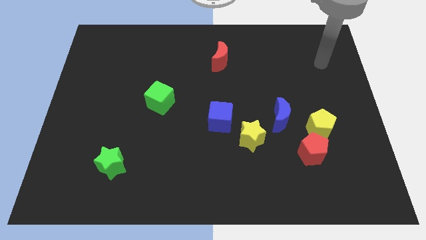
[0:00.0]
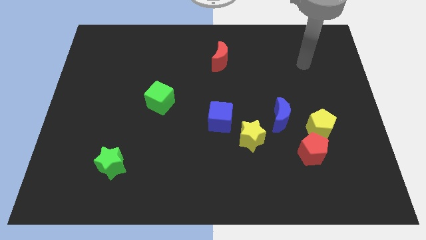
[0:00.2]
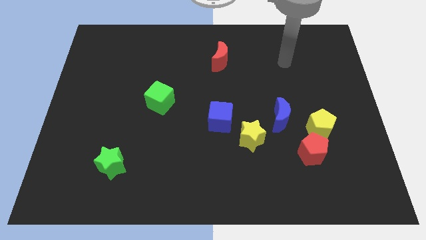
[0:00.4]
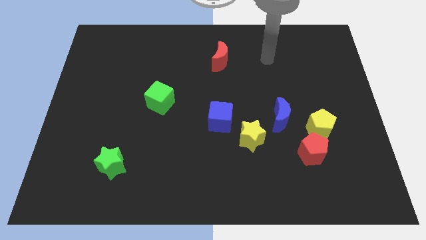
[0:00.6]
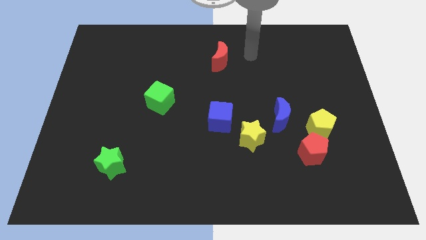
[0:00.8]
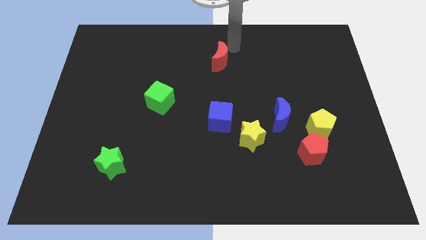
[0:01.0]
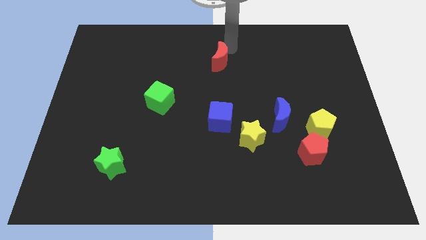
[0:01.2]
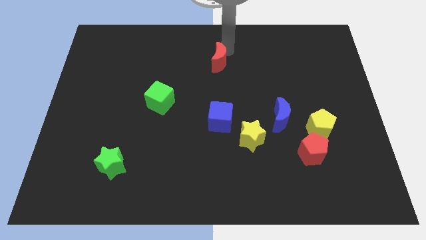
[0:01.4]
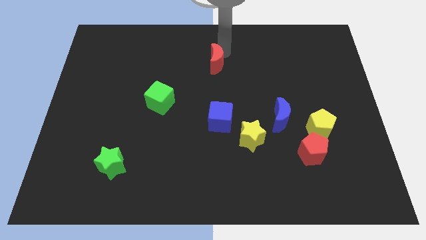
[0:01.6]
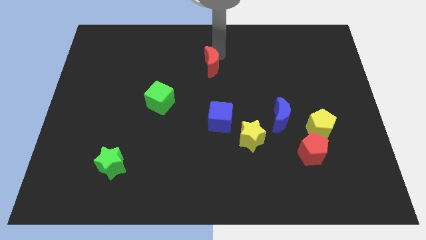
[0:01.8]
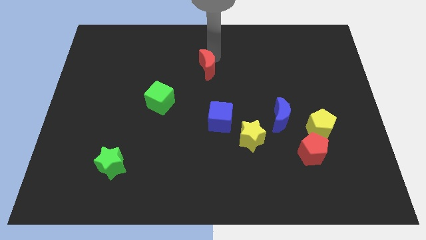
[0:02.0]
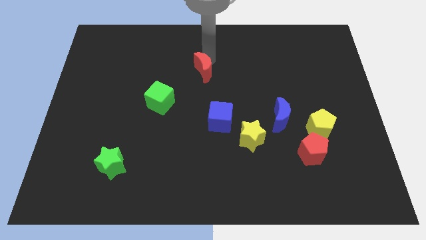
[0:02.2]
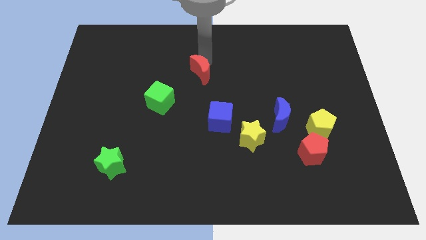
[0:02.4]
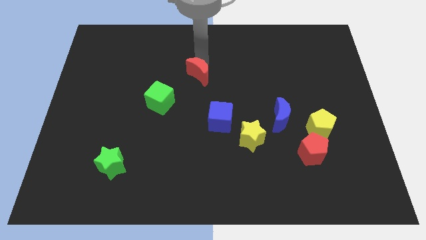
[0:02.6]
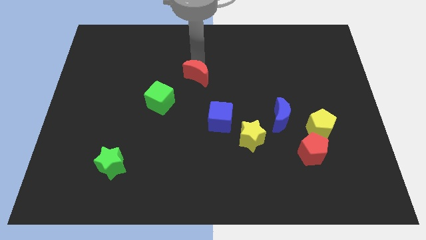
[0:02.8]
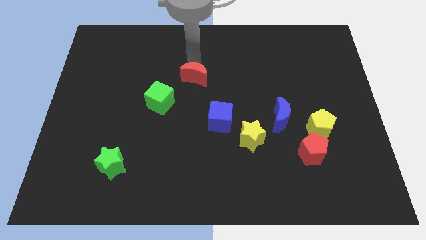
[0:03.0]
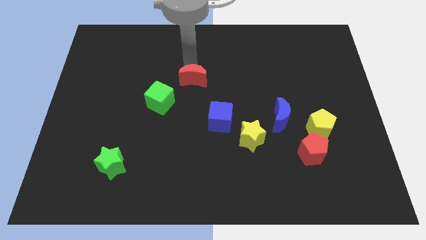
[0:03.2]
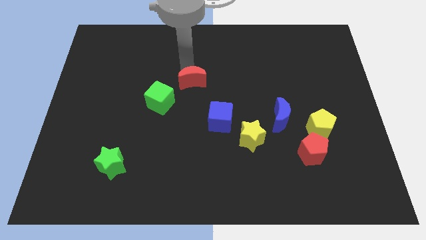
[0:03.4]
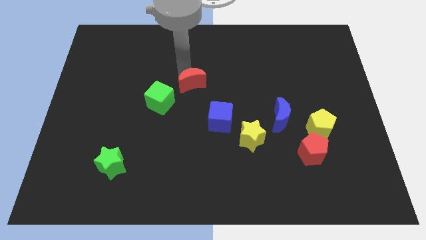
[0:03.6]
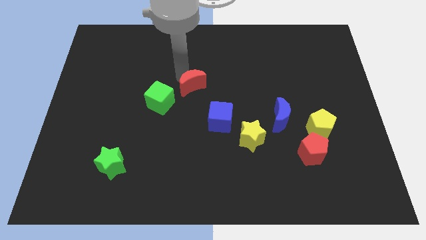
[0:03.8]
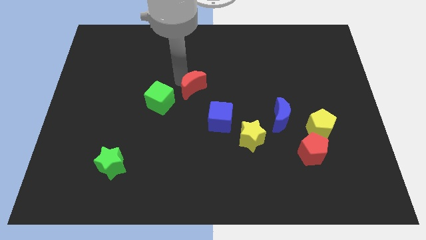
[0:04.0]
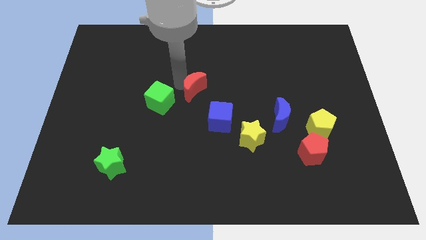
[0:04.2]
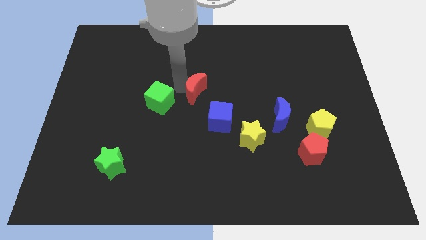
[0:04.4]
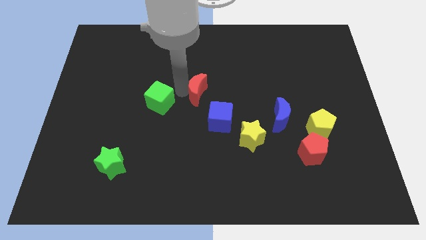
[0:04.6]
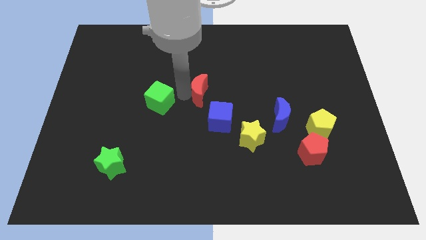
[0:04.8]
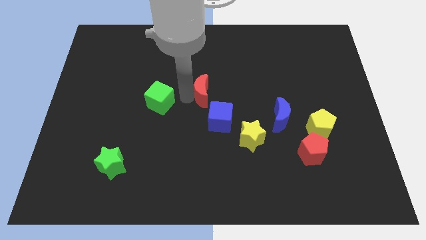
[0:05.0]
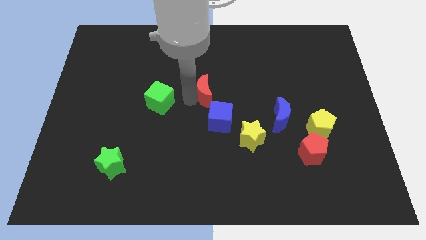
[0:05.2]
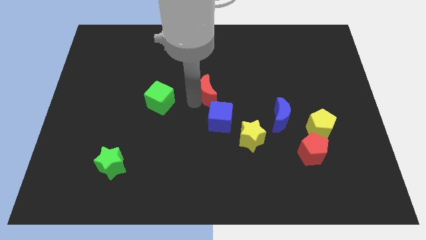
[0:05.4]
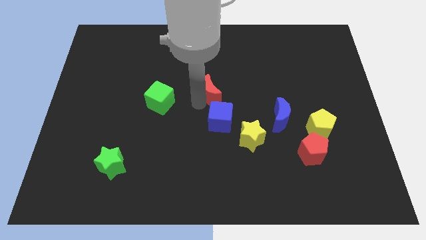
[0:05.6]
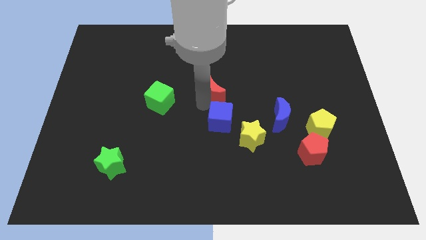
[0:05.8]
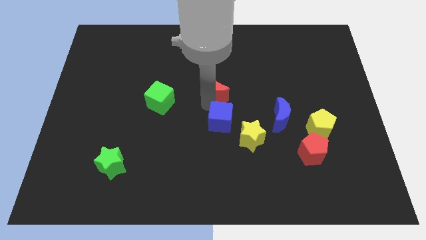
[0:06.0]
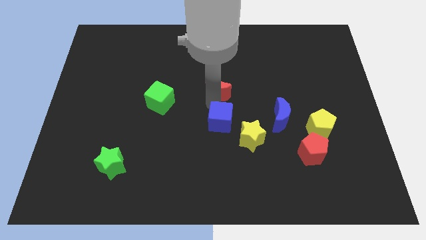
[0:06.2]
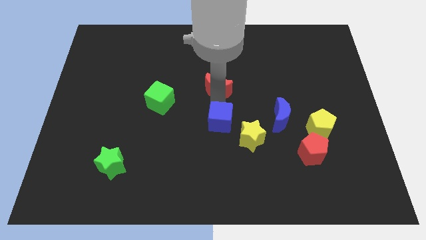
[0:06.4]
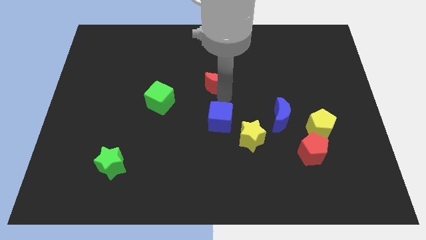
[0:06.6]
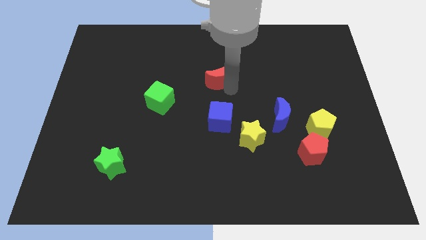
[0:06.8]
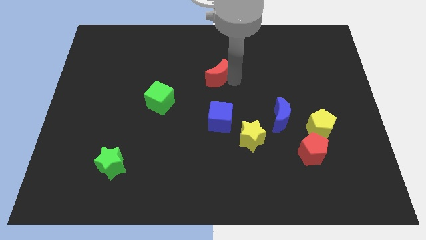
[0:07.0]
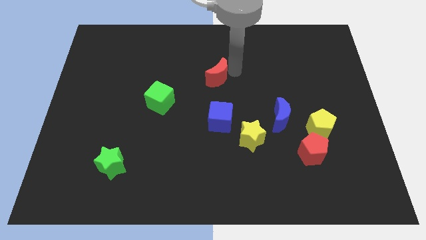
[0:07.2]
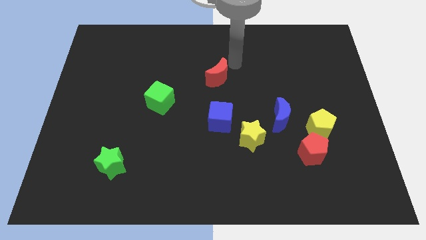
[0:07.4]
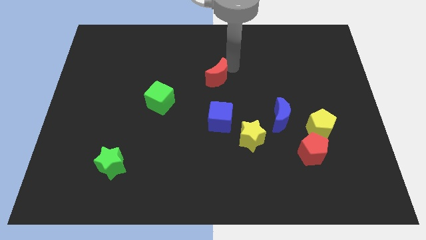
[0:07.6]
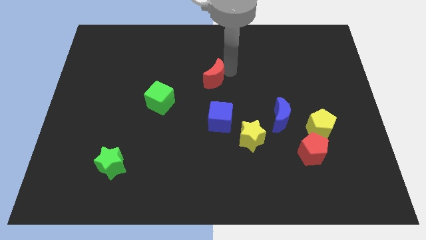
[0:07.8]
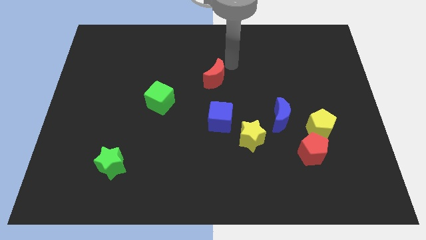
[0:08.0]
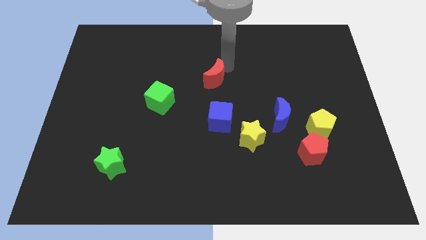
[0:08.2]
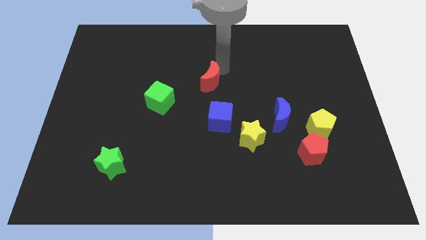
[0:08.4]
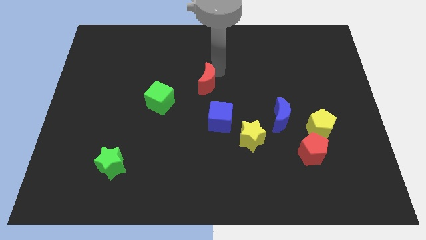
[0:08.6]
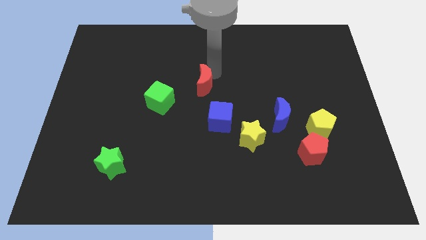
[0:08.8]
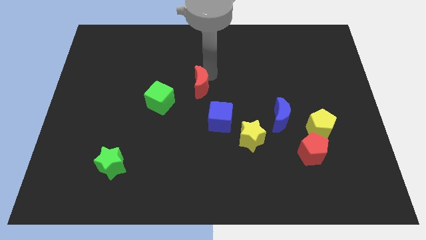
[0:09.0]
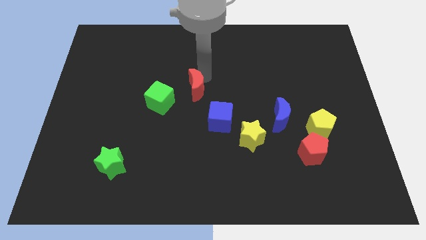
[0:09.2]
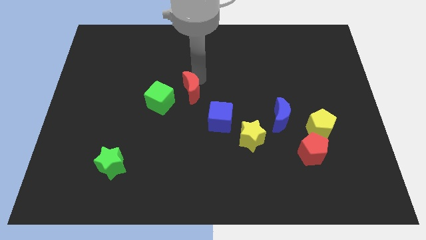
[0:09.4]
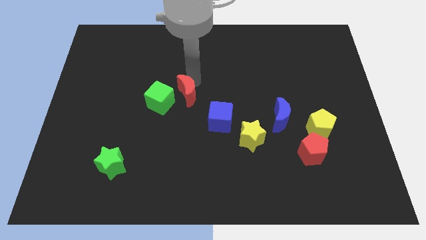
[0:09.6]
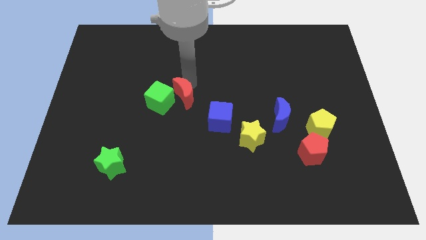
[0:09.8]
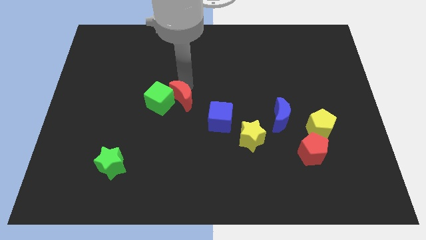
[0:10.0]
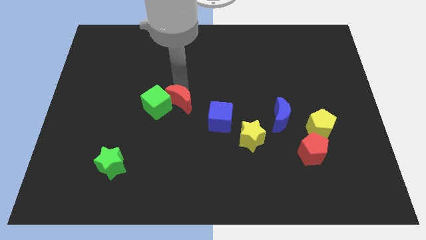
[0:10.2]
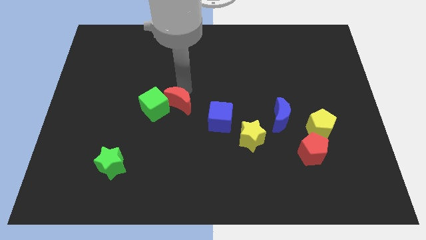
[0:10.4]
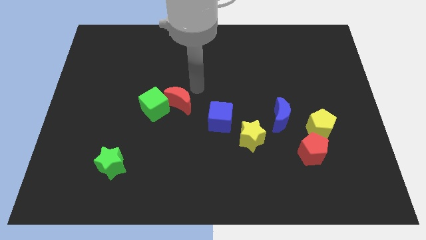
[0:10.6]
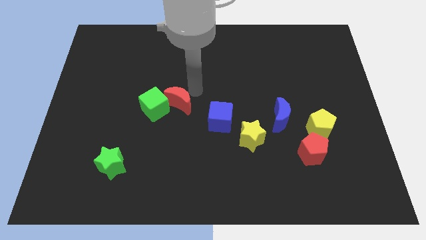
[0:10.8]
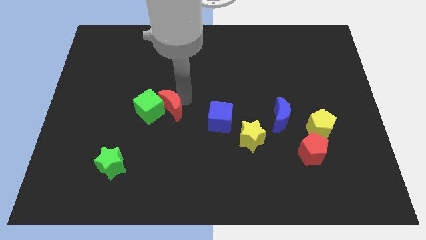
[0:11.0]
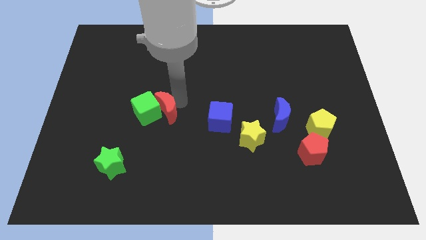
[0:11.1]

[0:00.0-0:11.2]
move the red moon down and to the left diagonally

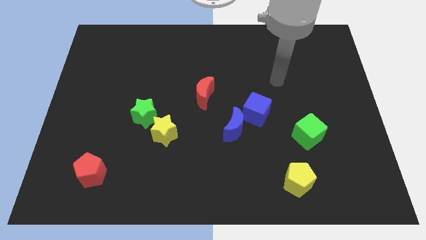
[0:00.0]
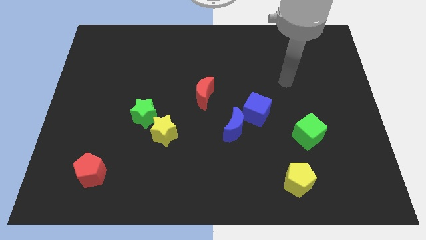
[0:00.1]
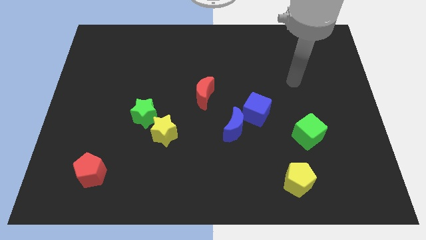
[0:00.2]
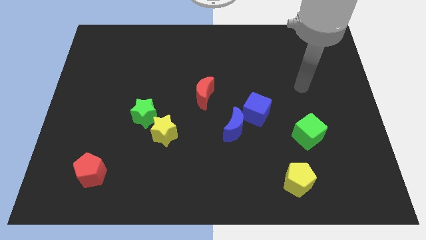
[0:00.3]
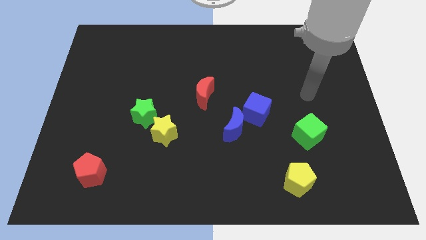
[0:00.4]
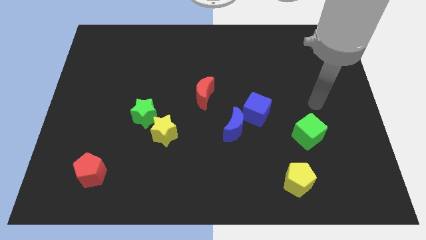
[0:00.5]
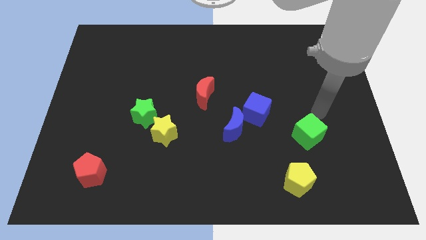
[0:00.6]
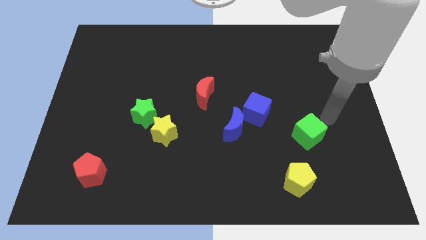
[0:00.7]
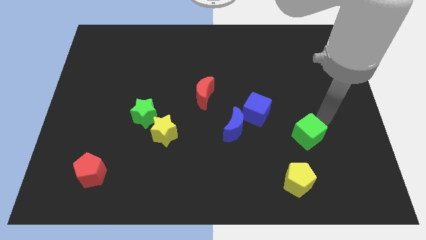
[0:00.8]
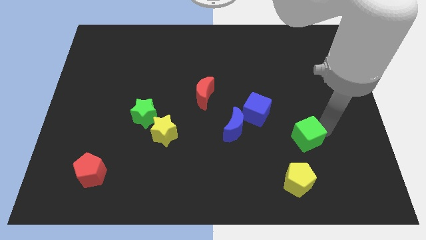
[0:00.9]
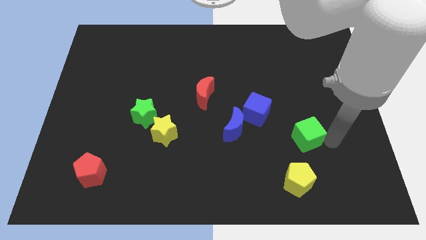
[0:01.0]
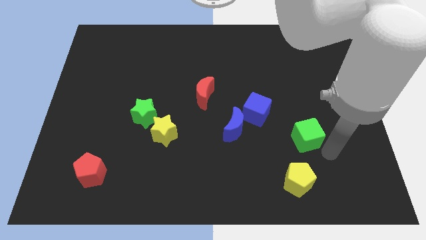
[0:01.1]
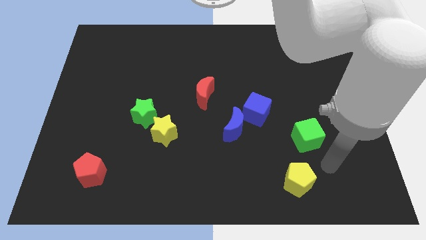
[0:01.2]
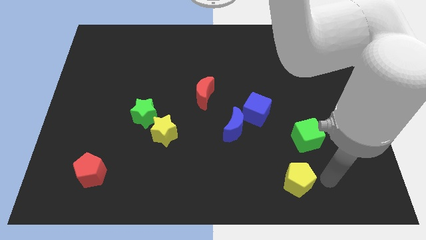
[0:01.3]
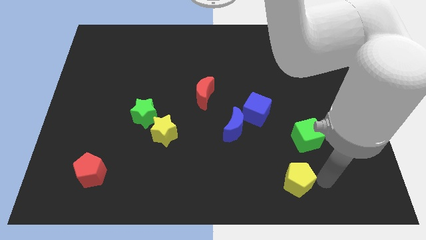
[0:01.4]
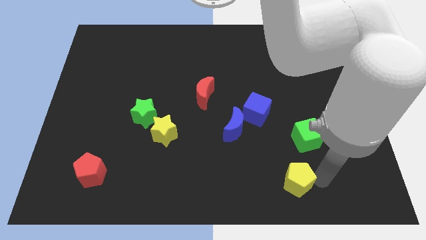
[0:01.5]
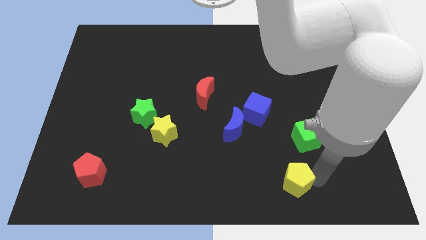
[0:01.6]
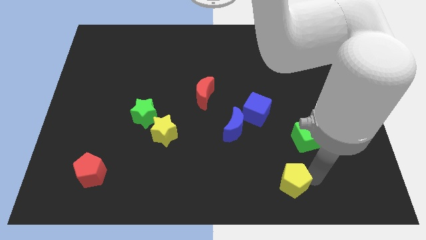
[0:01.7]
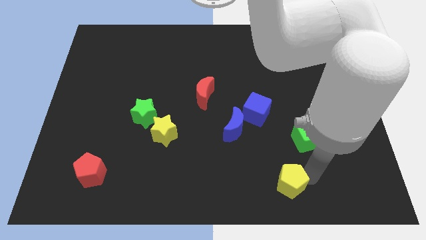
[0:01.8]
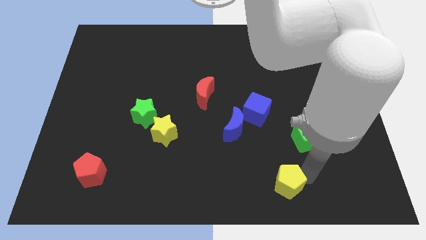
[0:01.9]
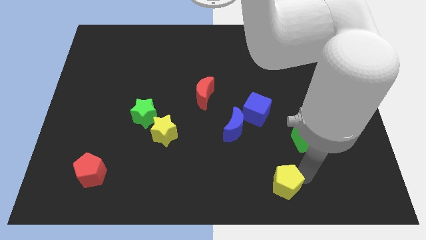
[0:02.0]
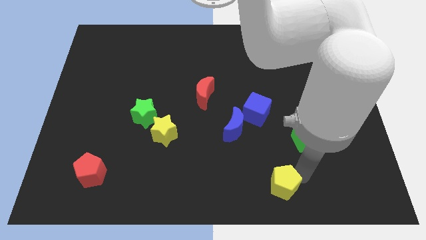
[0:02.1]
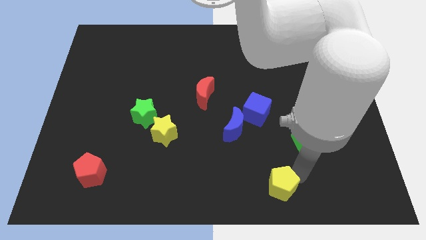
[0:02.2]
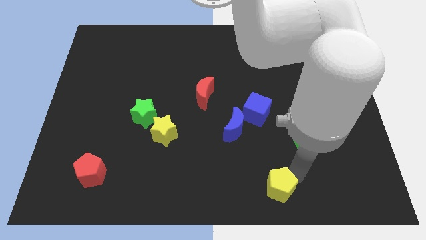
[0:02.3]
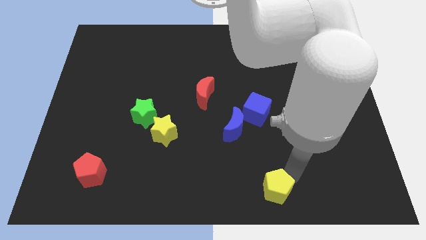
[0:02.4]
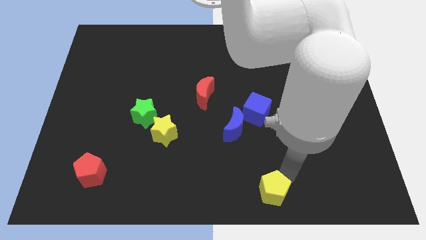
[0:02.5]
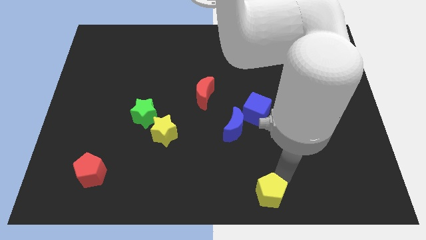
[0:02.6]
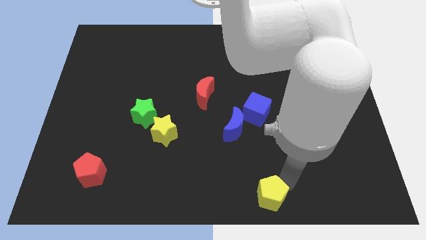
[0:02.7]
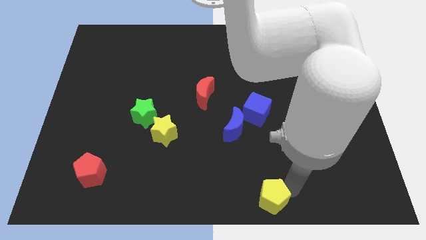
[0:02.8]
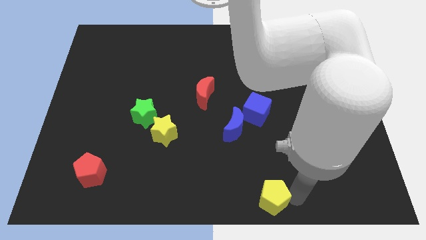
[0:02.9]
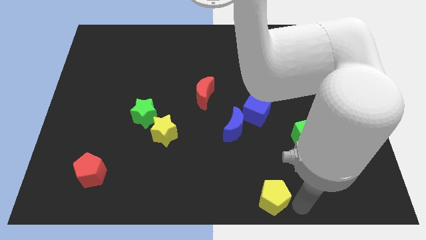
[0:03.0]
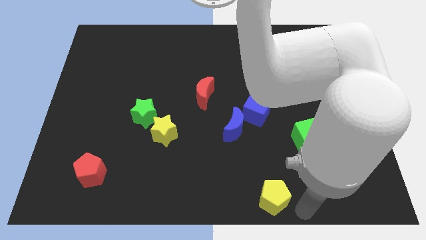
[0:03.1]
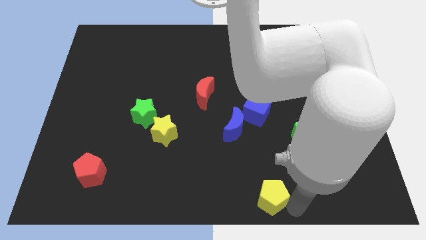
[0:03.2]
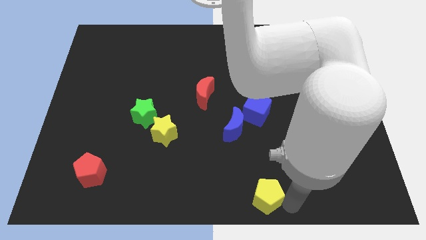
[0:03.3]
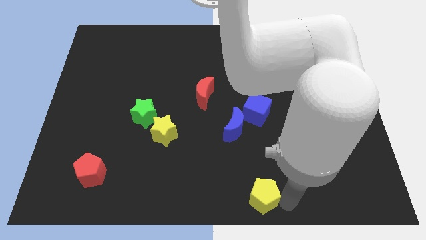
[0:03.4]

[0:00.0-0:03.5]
slightly move the yellow pentagon left
